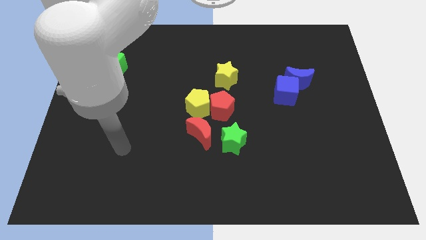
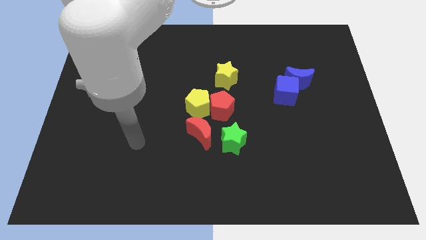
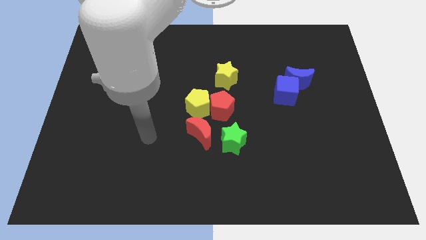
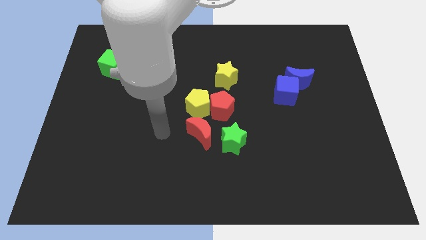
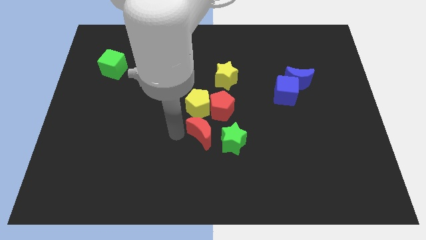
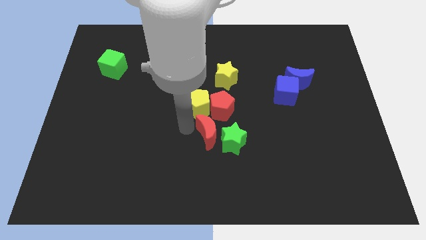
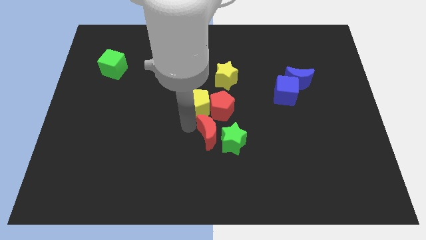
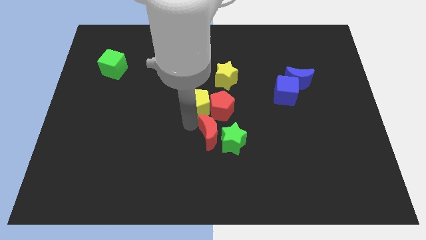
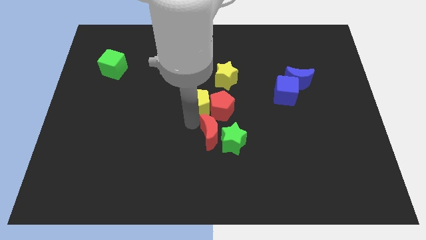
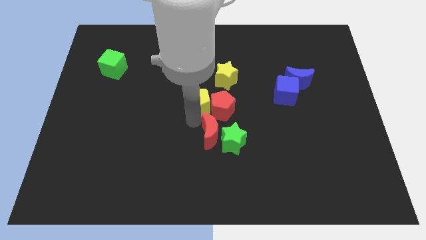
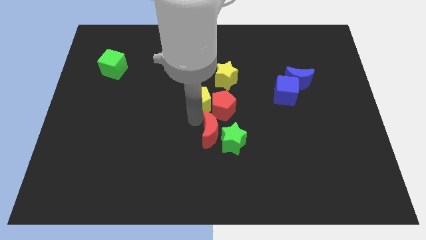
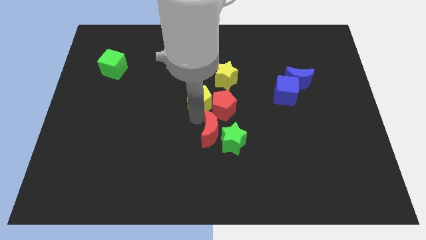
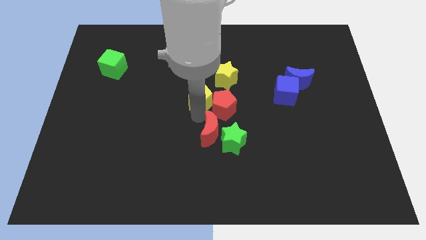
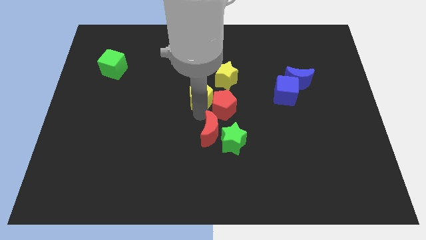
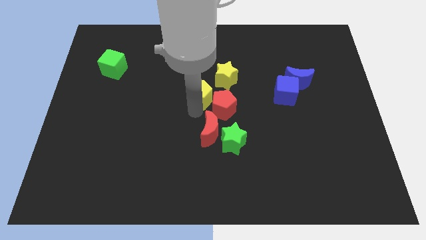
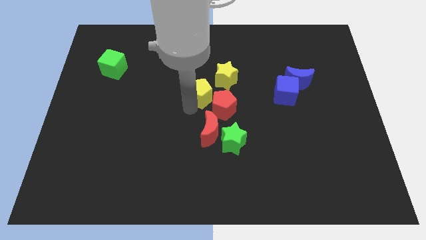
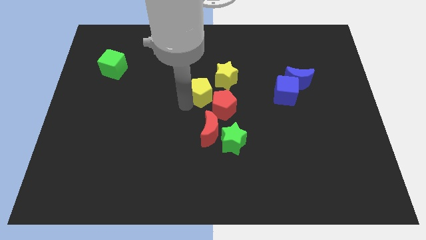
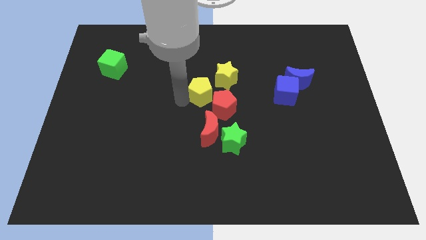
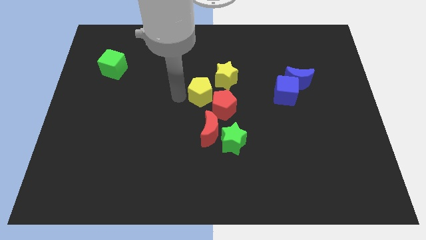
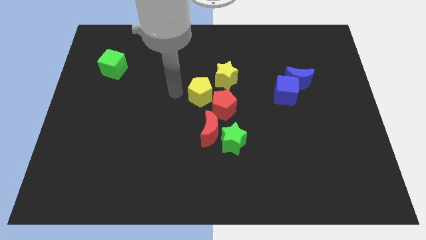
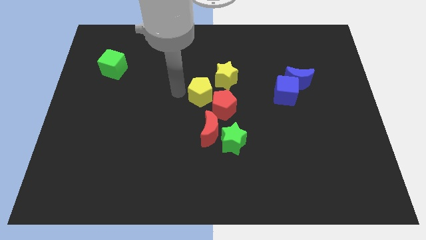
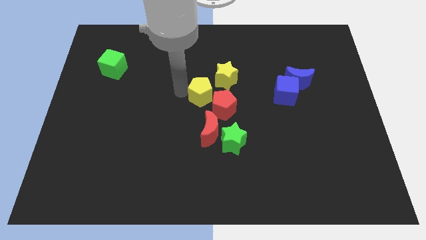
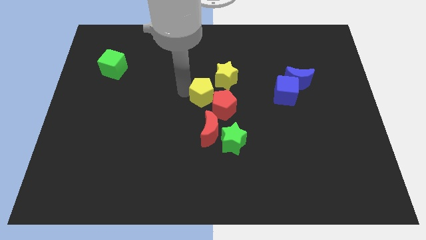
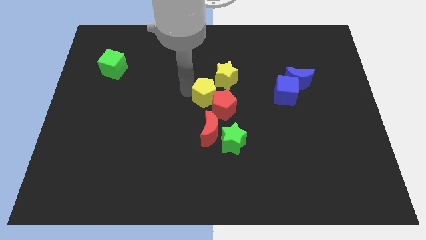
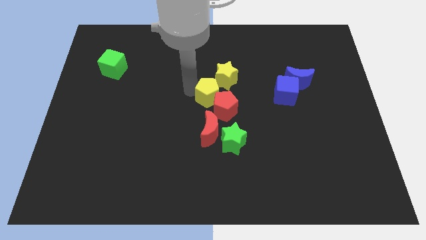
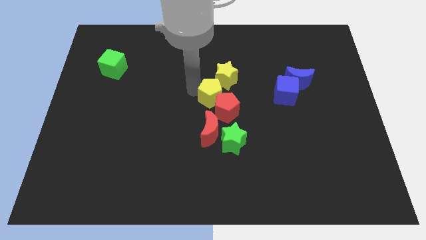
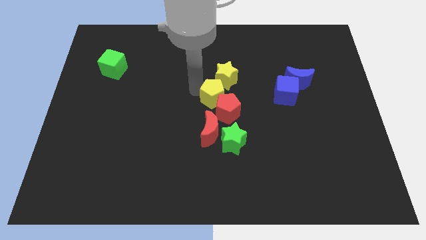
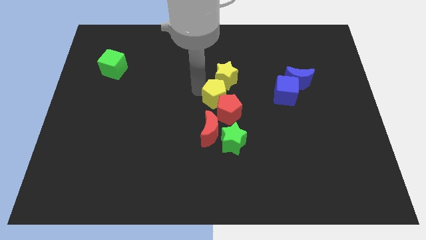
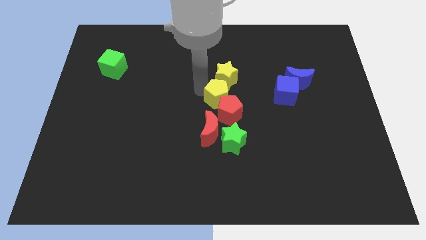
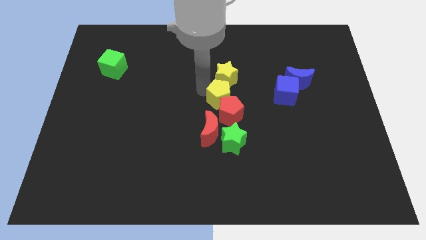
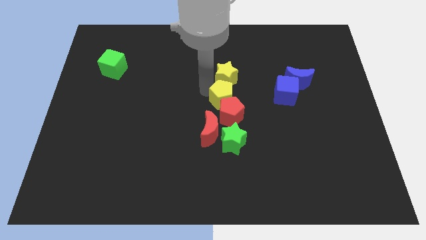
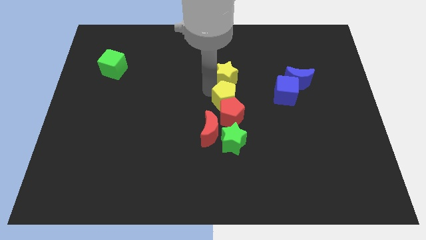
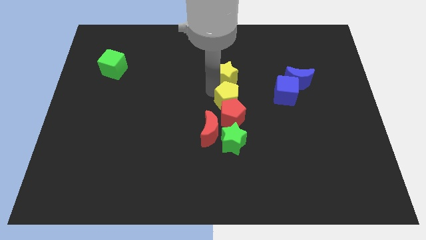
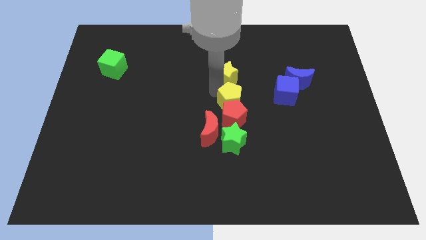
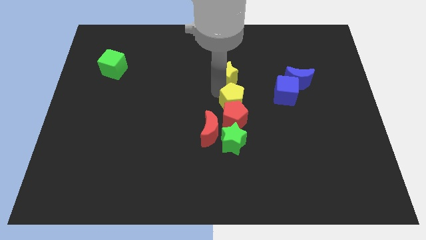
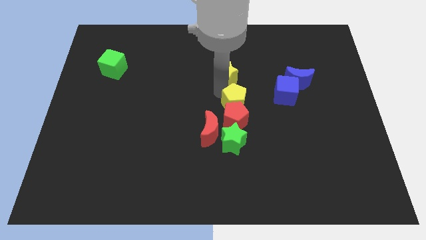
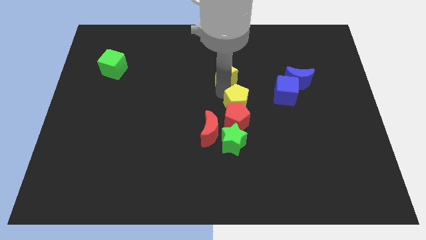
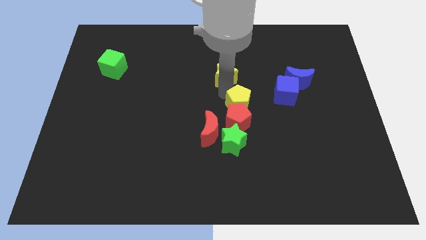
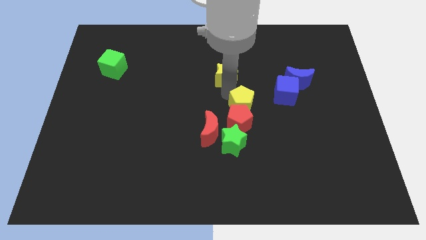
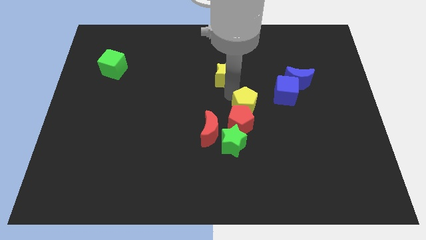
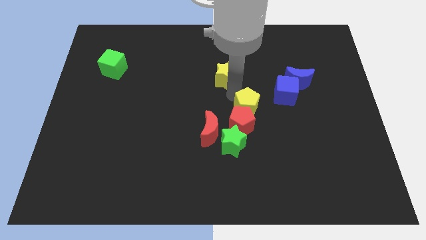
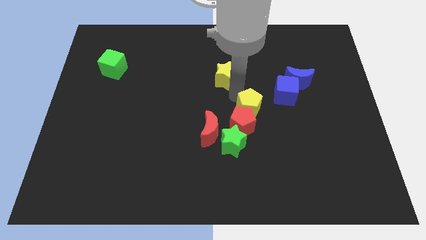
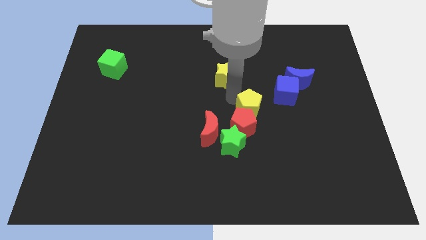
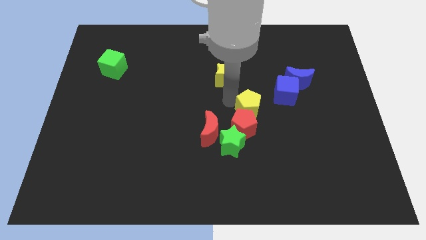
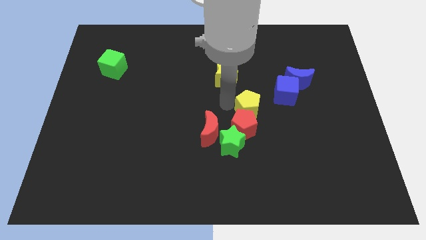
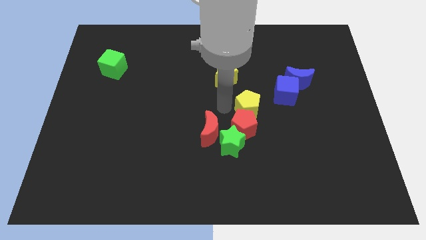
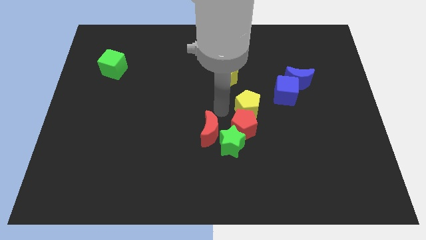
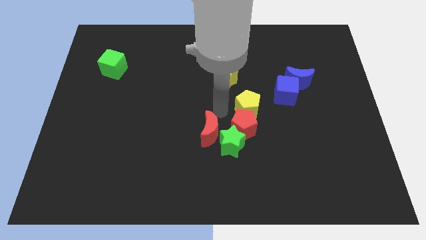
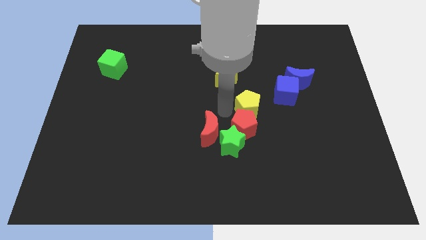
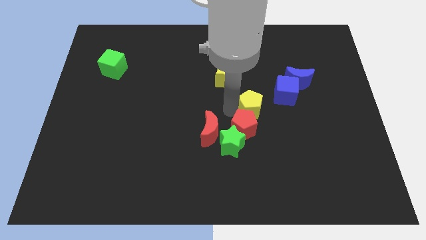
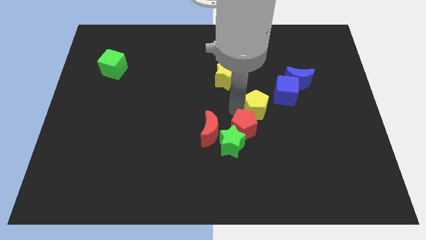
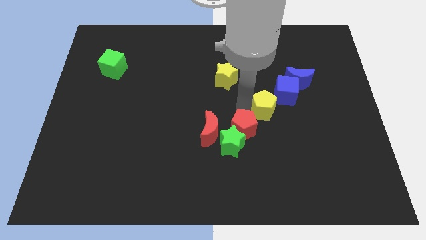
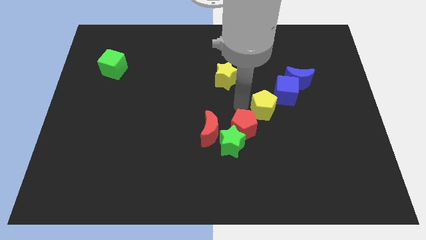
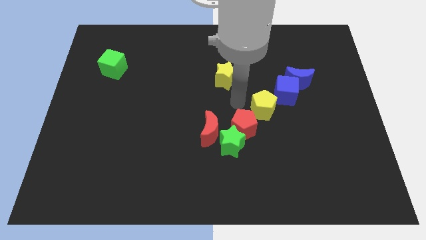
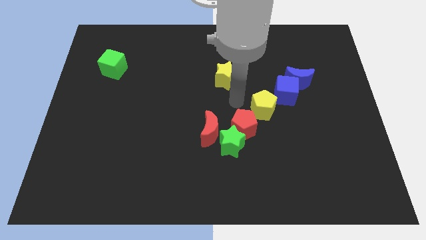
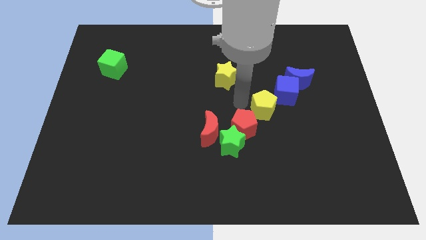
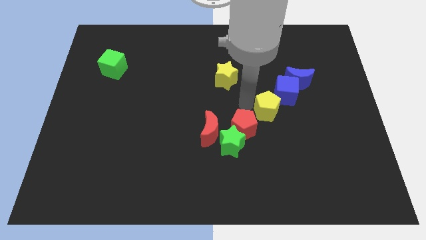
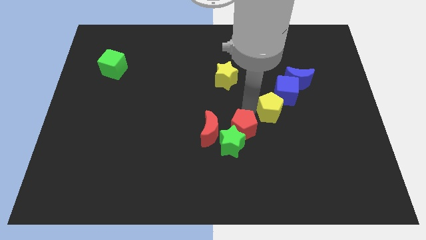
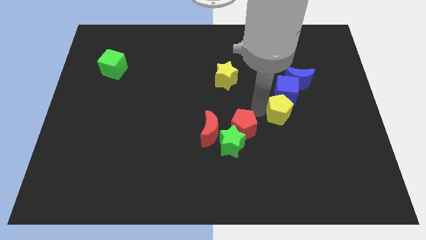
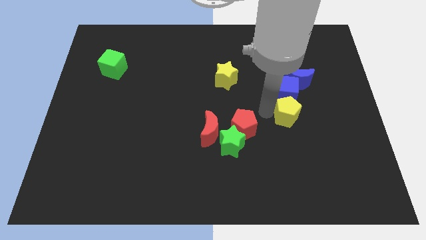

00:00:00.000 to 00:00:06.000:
put the yellow pentagon to the bottom right side of the blue cube

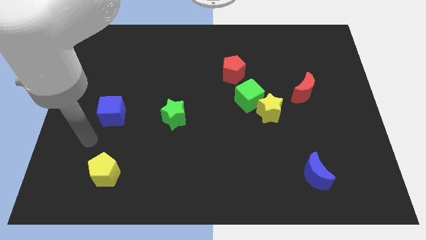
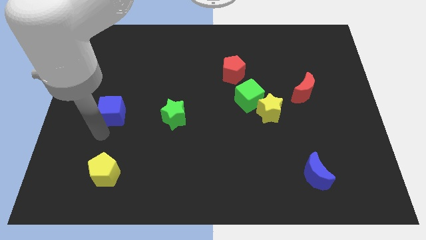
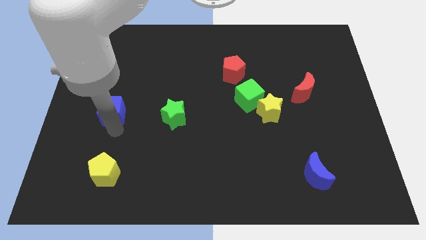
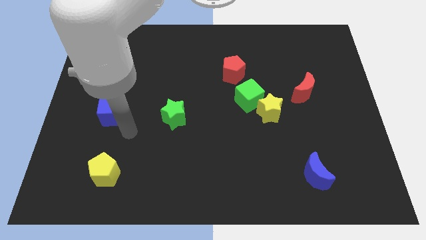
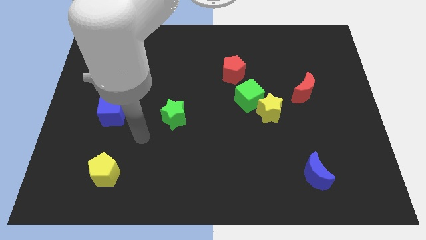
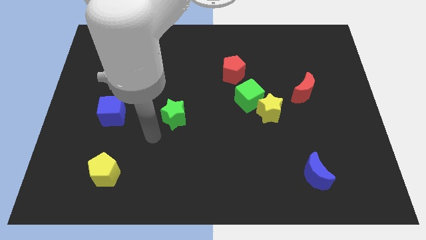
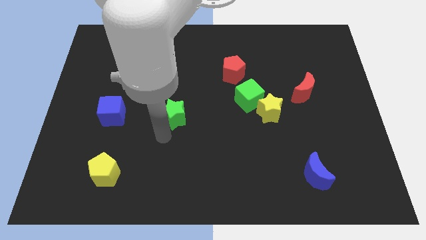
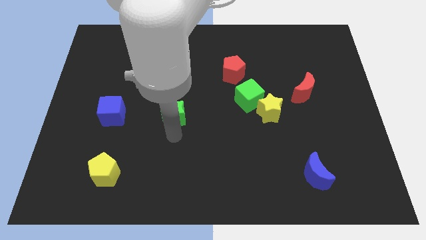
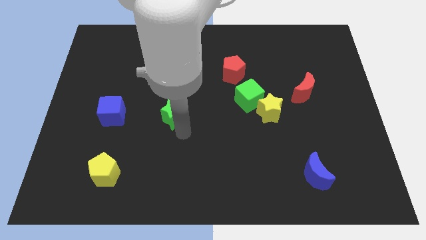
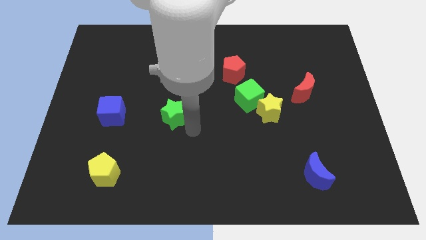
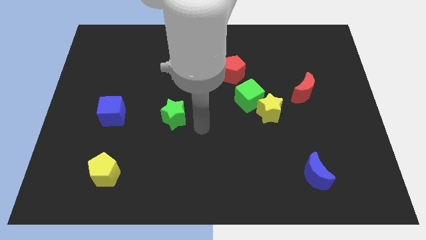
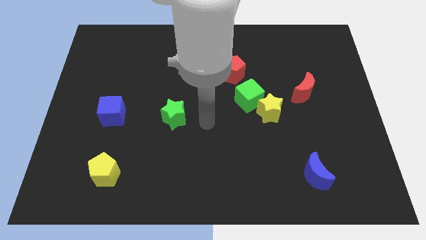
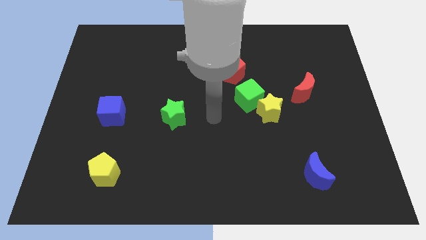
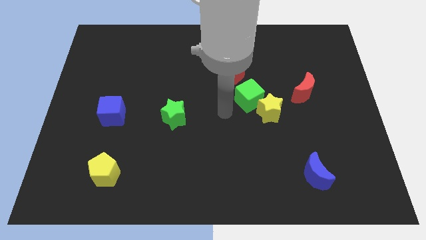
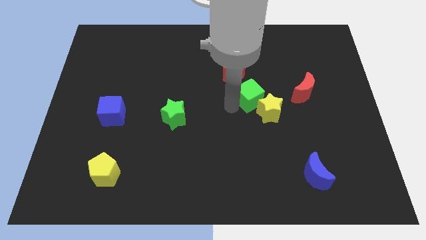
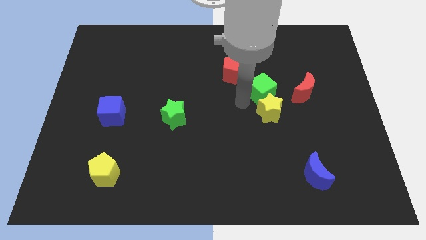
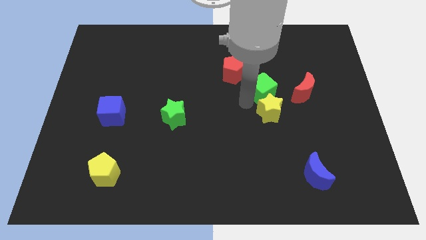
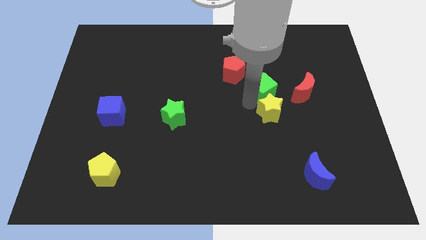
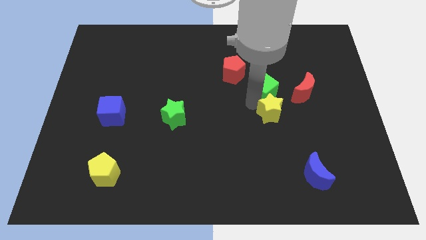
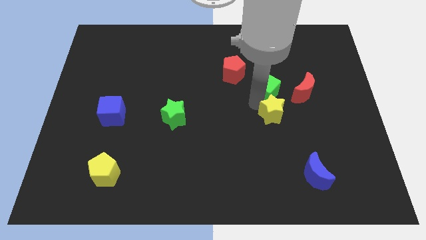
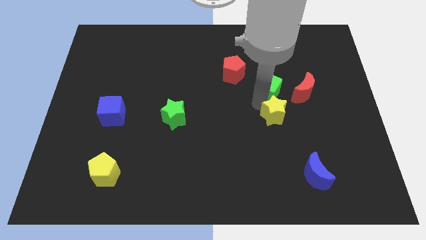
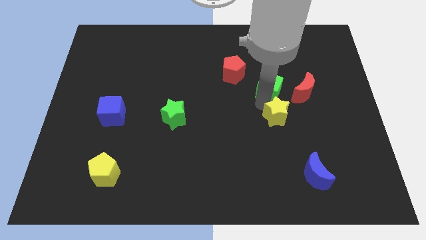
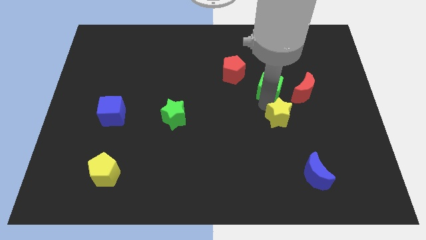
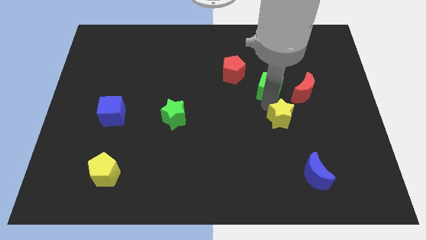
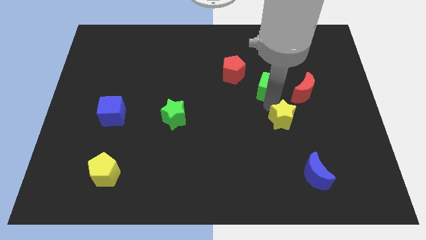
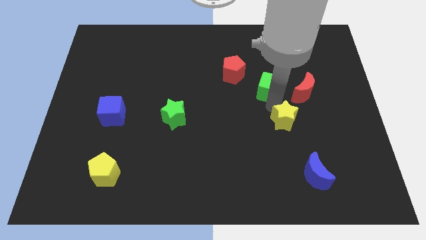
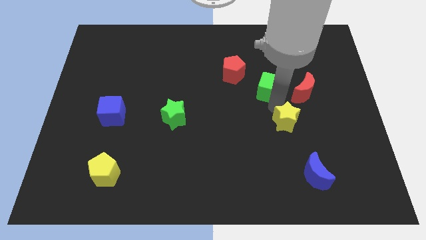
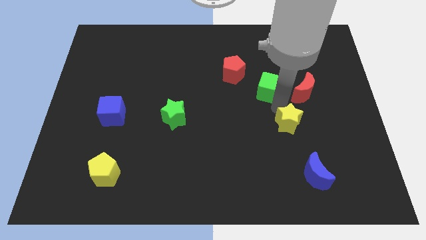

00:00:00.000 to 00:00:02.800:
slide the yellow star to the bottom side of the red moon
